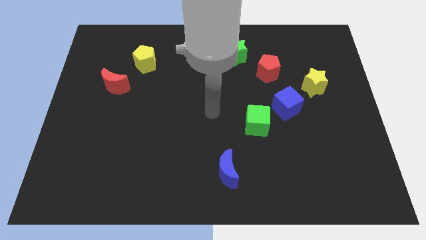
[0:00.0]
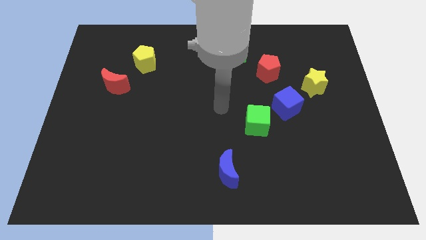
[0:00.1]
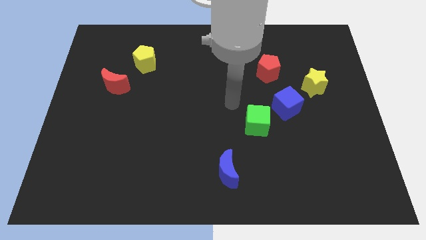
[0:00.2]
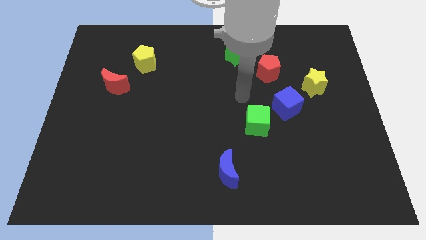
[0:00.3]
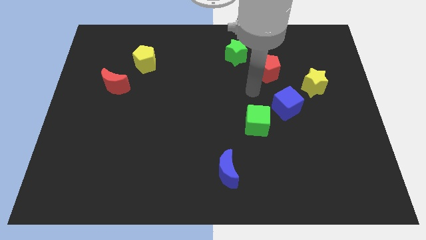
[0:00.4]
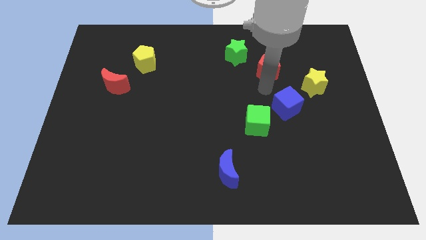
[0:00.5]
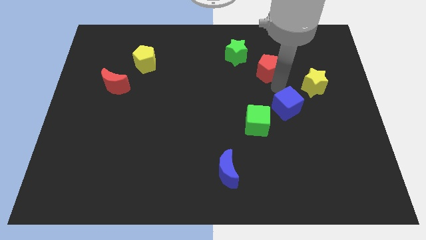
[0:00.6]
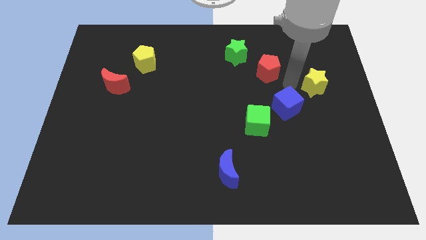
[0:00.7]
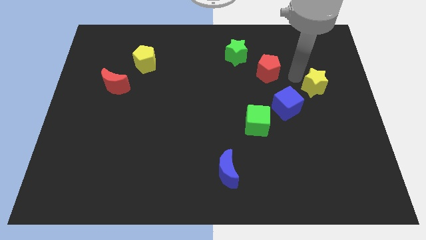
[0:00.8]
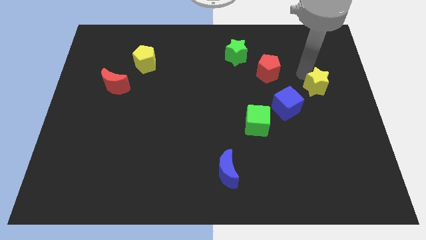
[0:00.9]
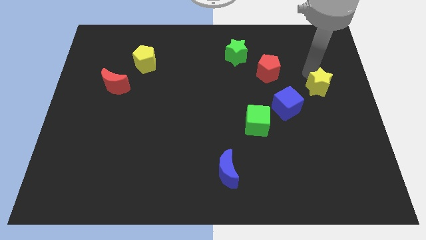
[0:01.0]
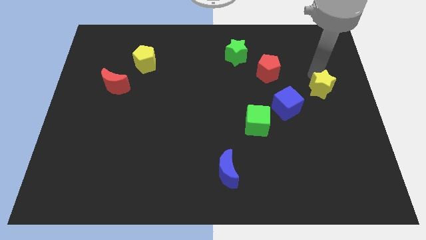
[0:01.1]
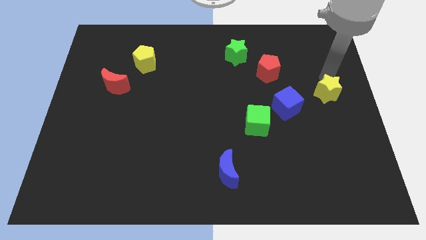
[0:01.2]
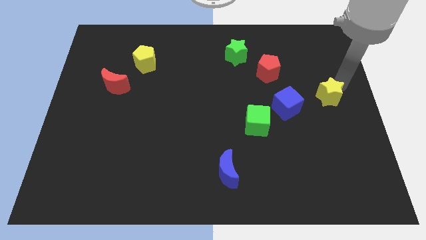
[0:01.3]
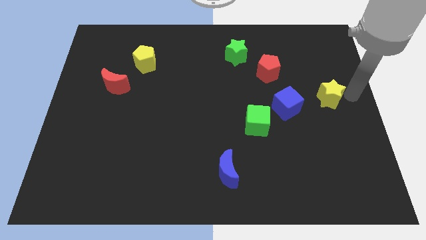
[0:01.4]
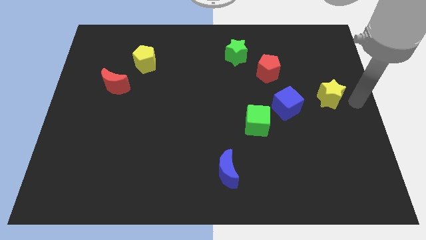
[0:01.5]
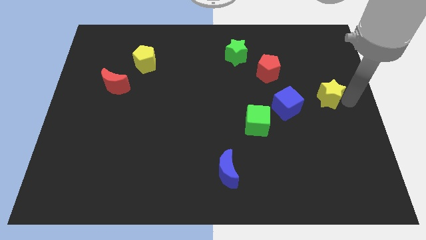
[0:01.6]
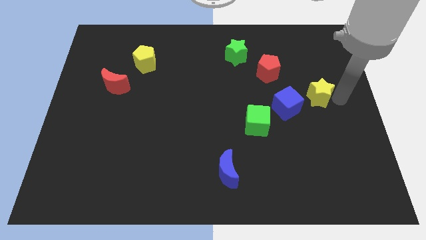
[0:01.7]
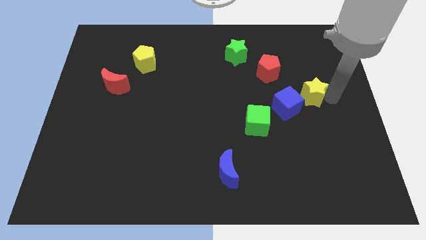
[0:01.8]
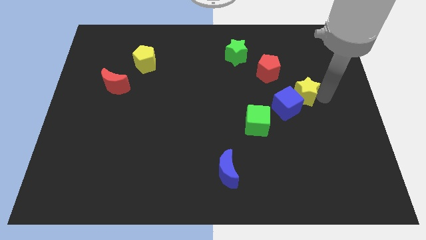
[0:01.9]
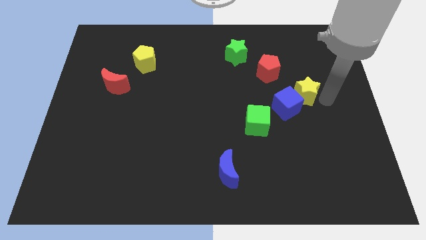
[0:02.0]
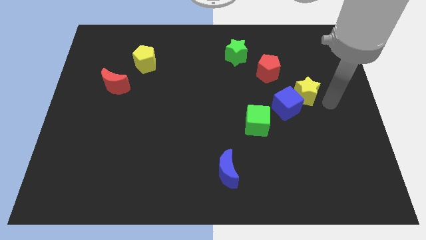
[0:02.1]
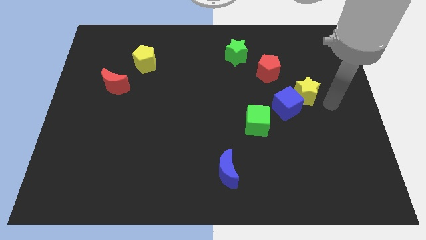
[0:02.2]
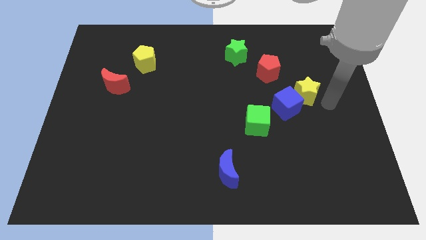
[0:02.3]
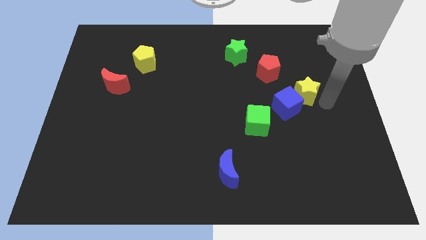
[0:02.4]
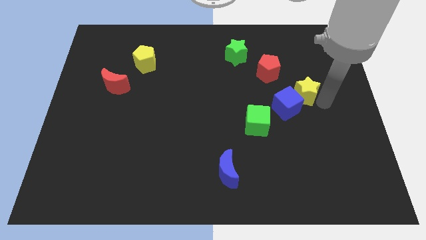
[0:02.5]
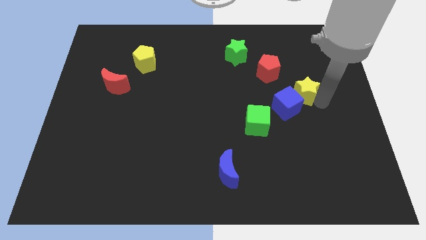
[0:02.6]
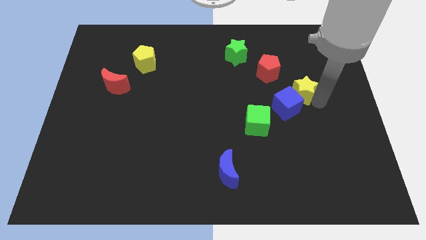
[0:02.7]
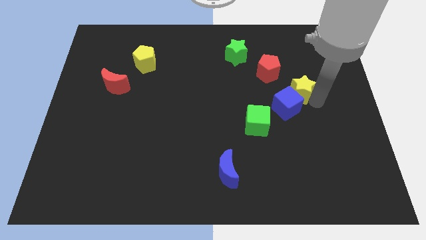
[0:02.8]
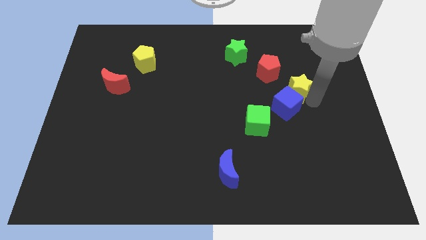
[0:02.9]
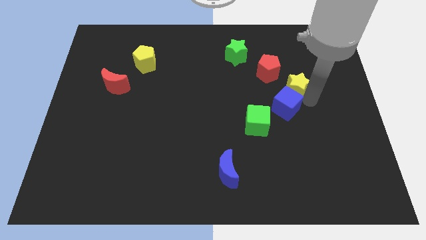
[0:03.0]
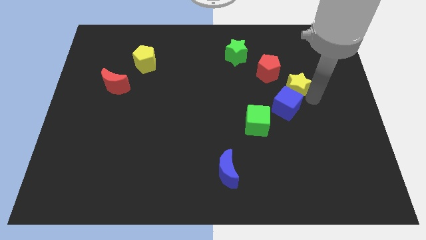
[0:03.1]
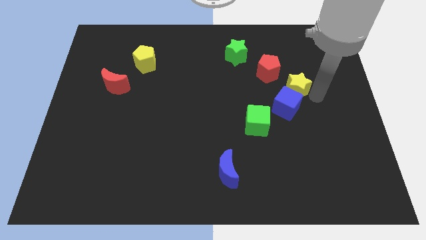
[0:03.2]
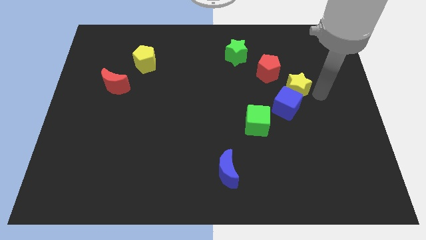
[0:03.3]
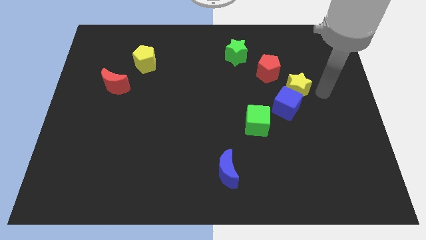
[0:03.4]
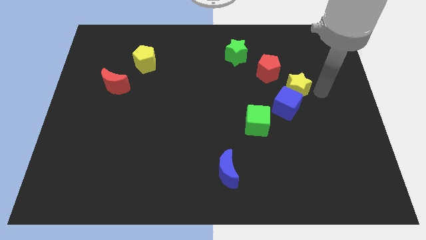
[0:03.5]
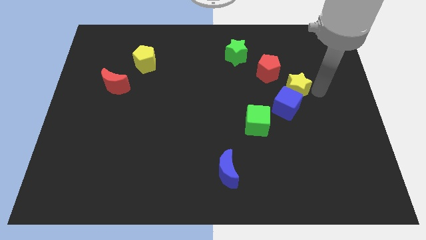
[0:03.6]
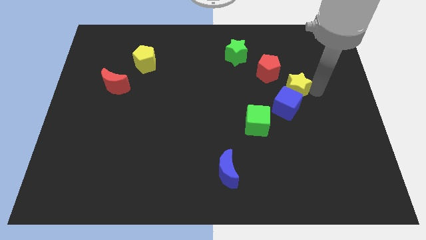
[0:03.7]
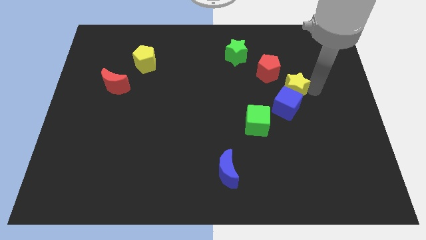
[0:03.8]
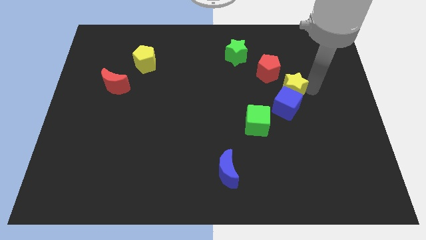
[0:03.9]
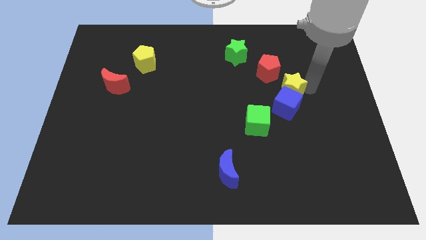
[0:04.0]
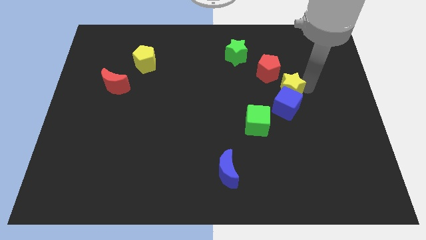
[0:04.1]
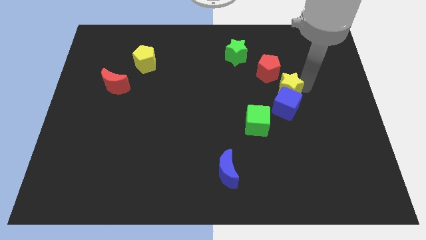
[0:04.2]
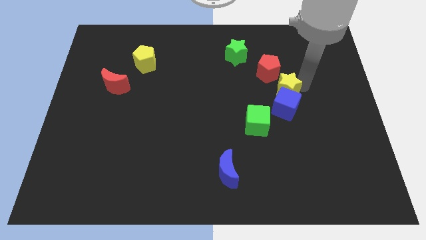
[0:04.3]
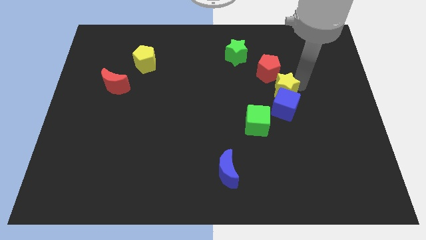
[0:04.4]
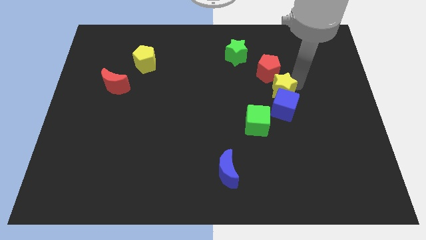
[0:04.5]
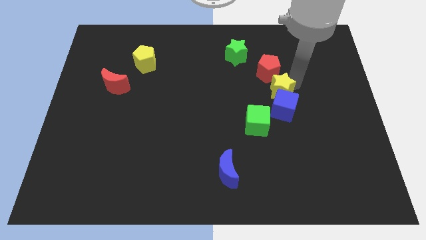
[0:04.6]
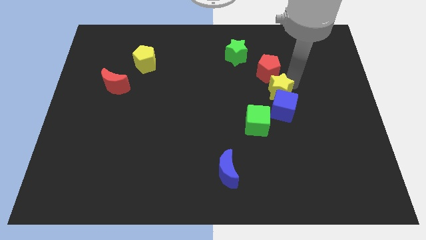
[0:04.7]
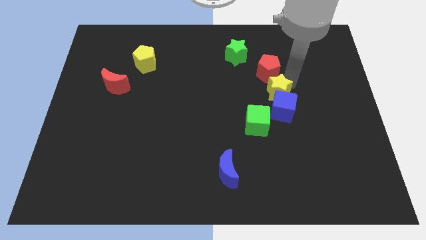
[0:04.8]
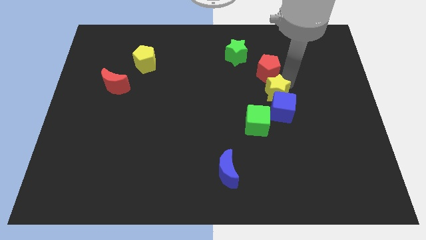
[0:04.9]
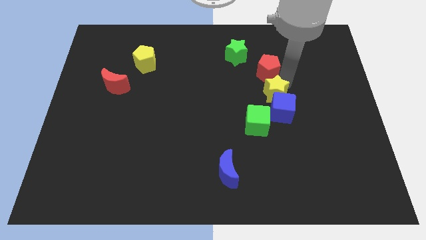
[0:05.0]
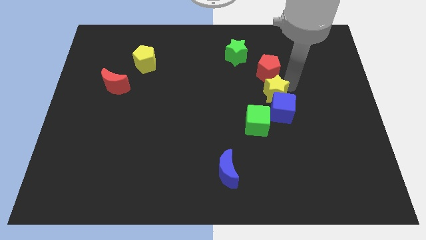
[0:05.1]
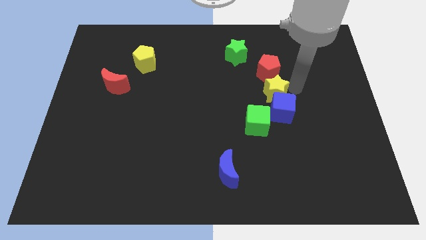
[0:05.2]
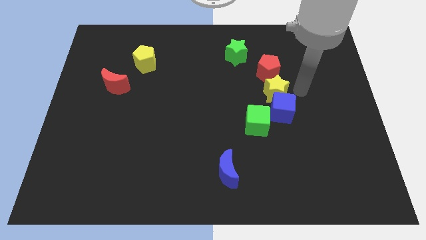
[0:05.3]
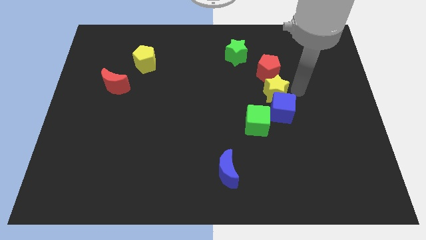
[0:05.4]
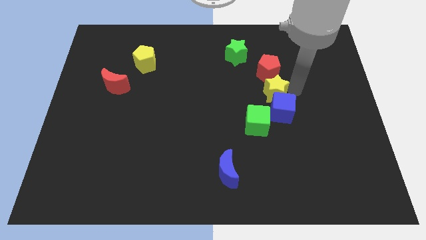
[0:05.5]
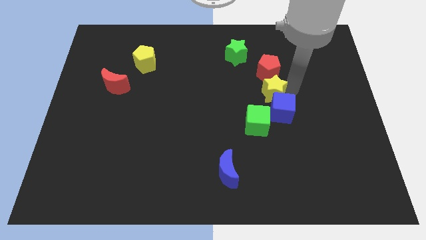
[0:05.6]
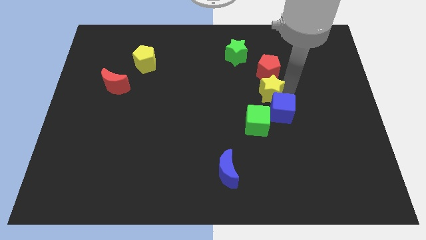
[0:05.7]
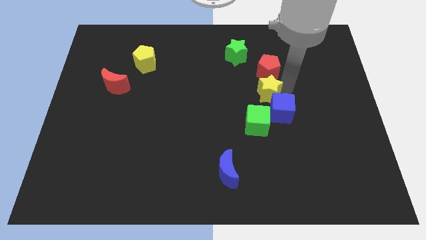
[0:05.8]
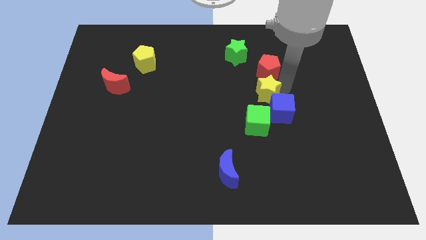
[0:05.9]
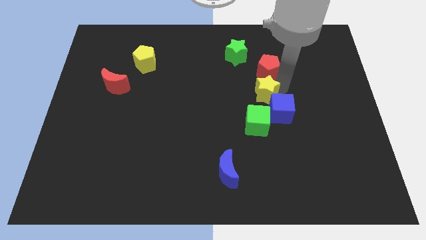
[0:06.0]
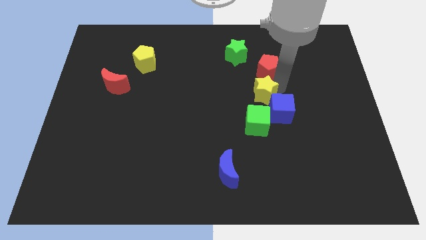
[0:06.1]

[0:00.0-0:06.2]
slide the yellow star to the middle
